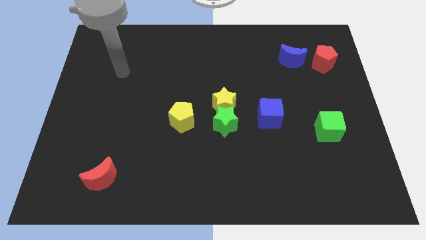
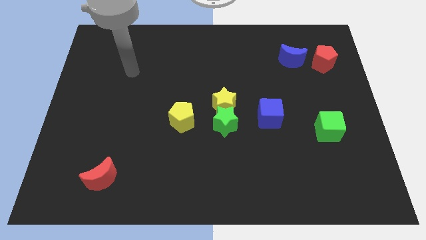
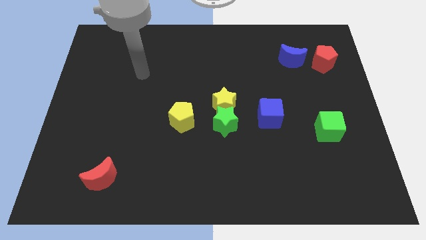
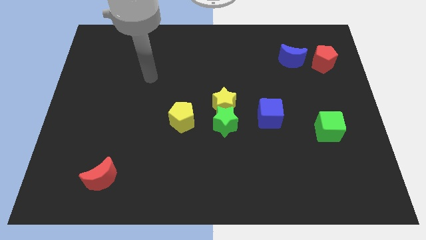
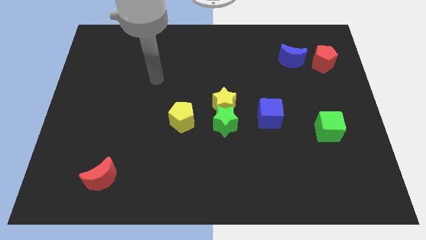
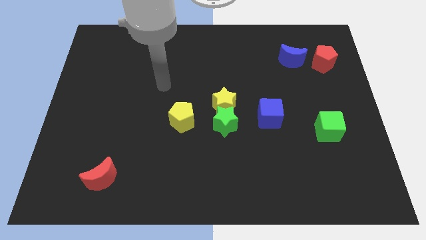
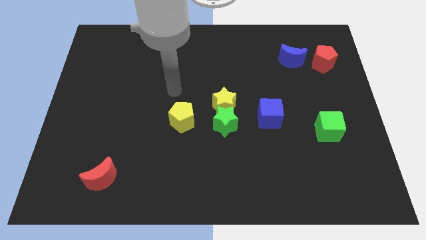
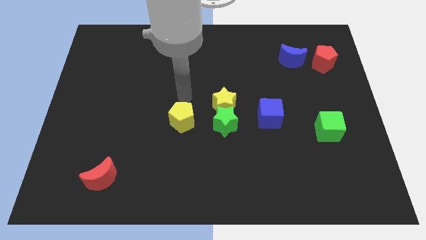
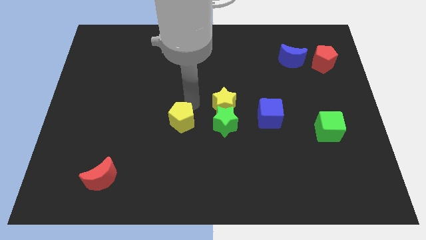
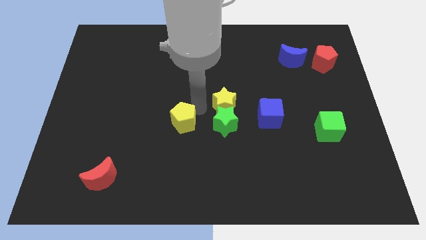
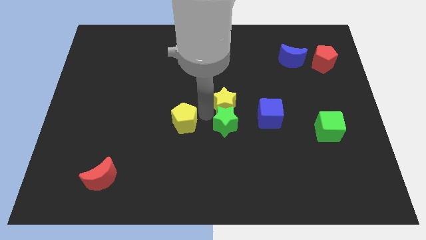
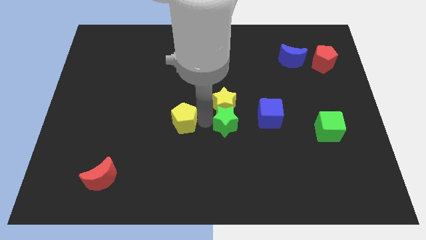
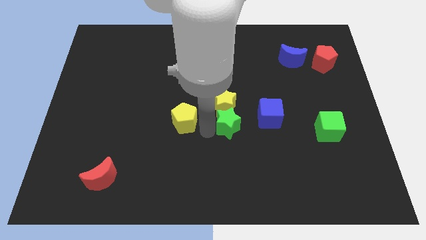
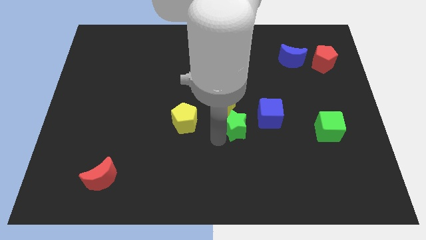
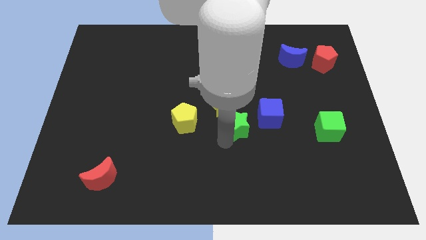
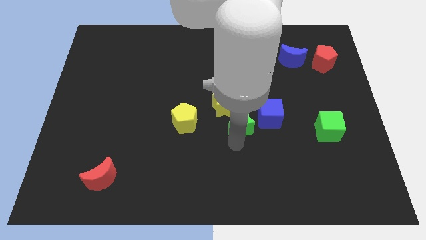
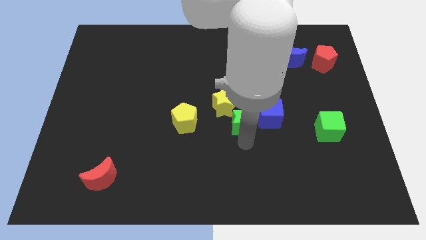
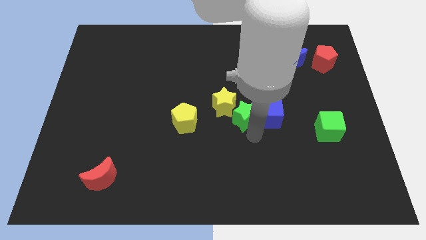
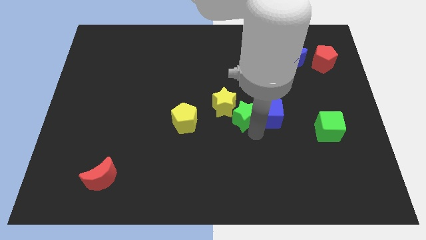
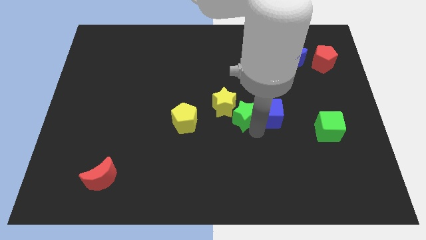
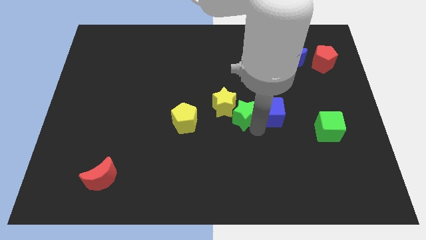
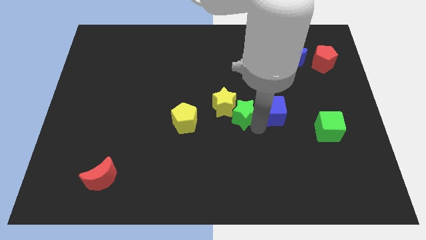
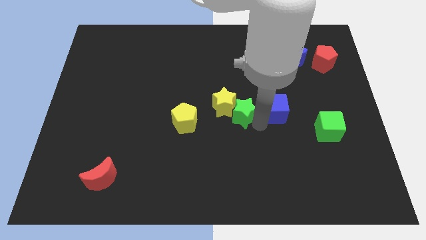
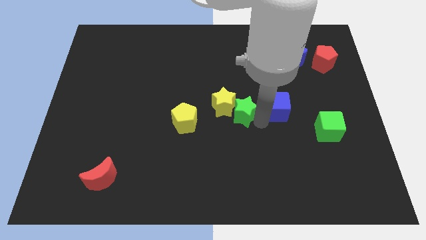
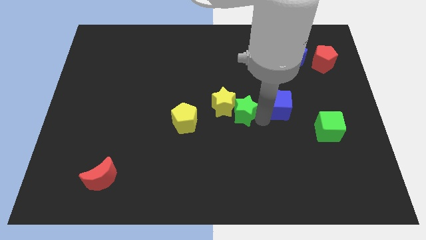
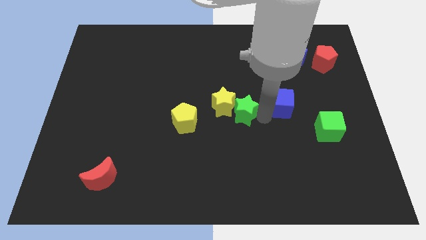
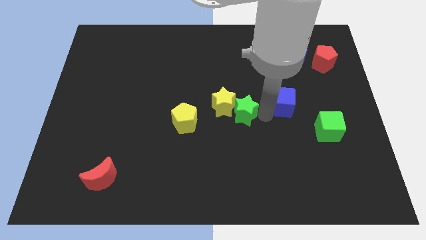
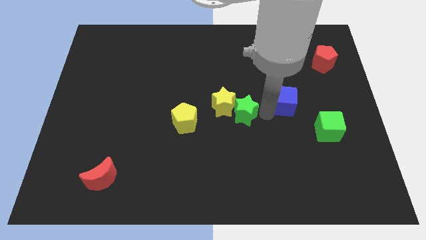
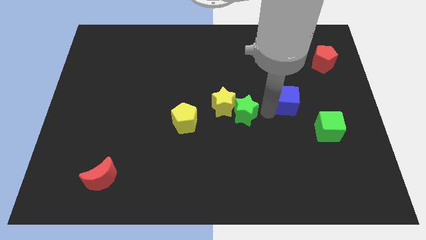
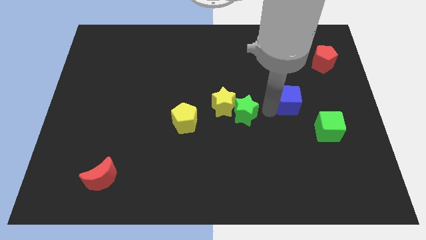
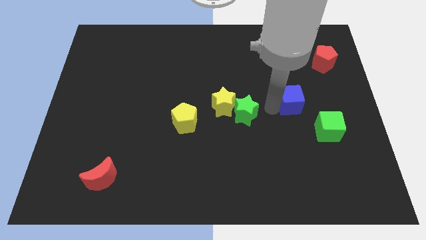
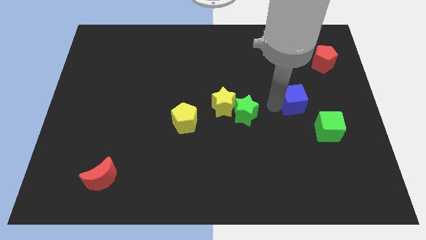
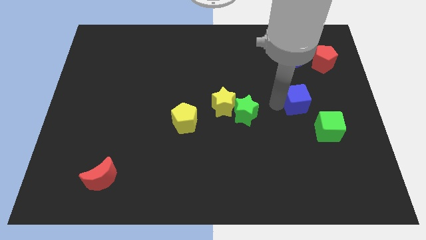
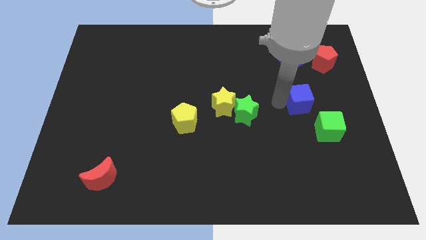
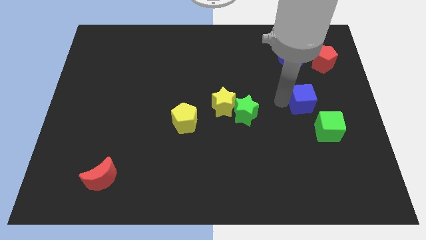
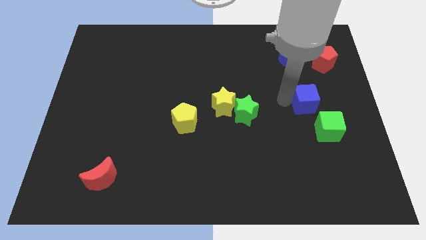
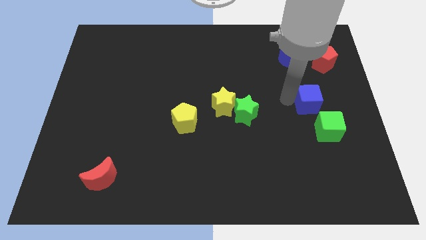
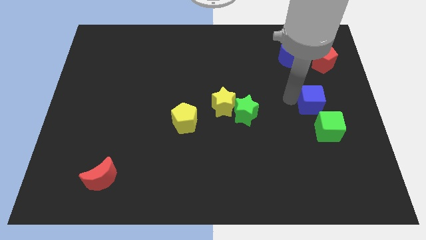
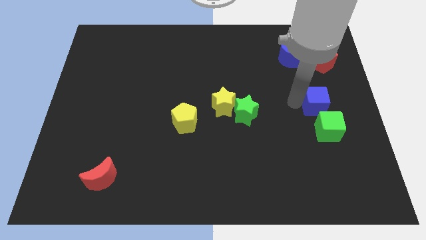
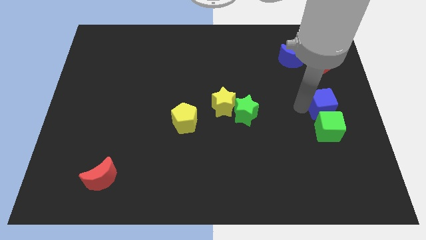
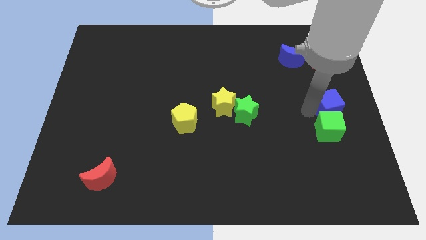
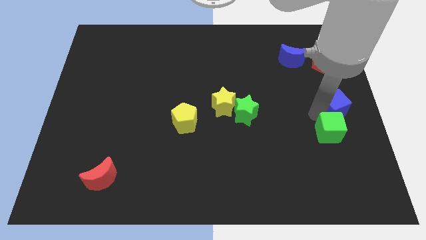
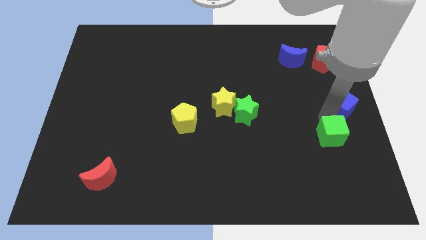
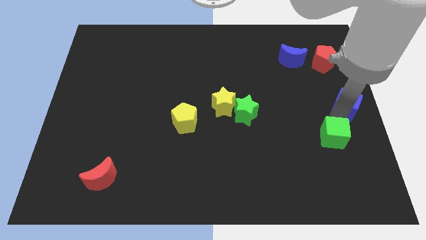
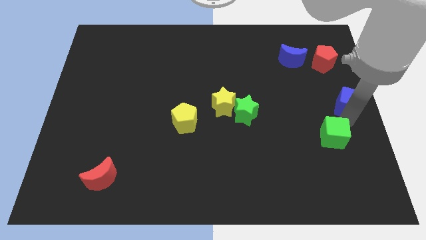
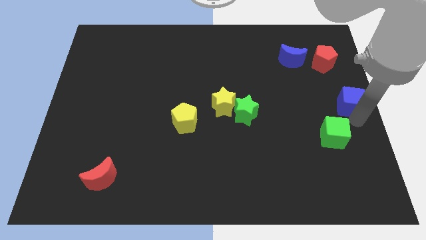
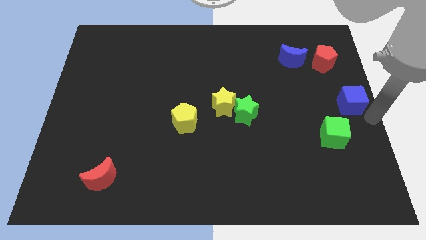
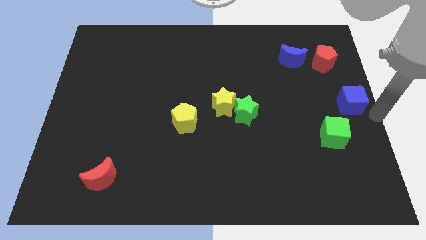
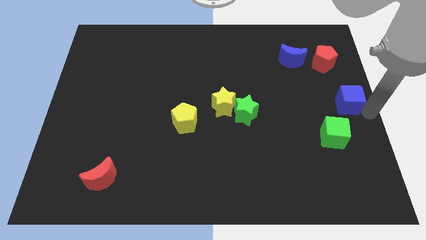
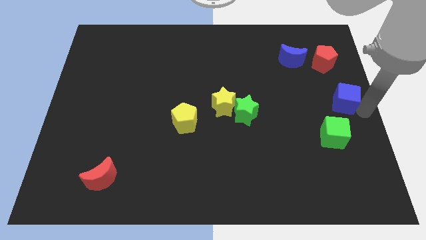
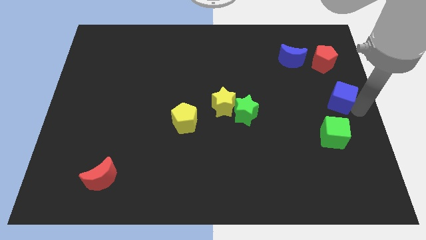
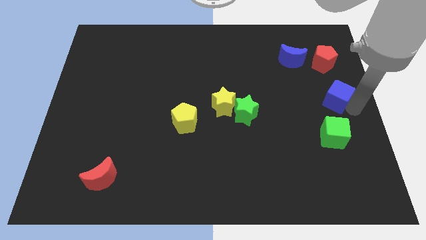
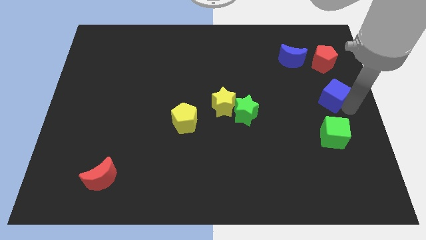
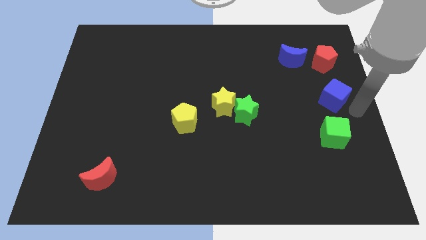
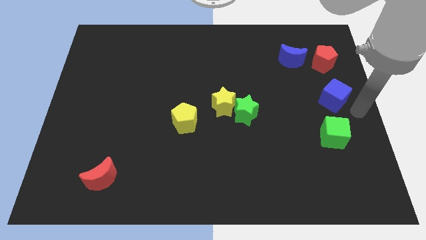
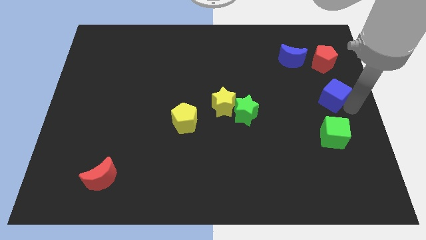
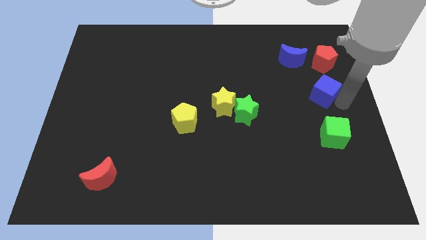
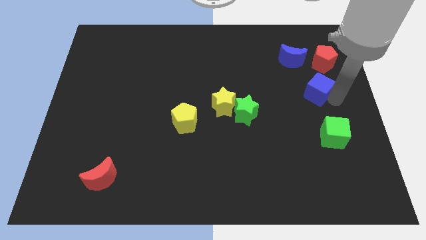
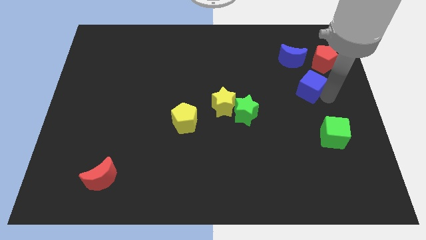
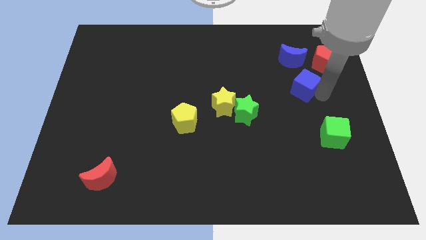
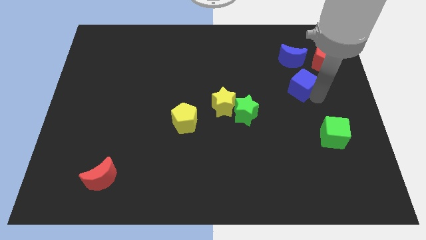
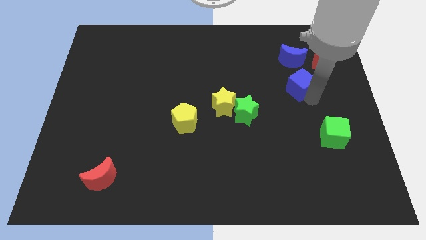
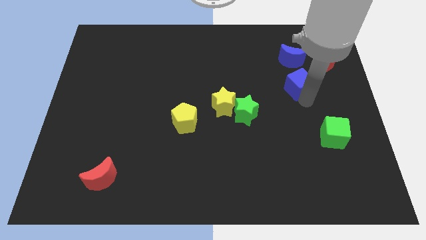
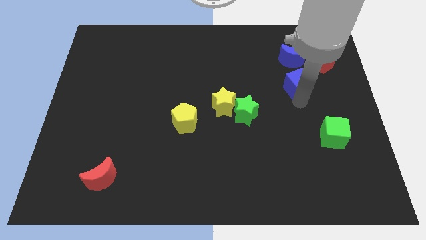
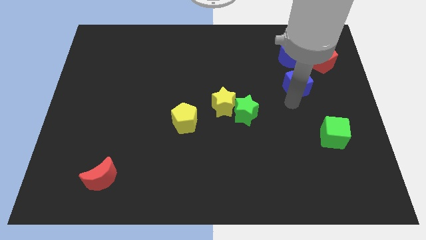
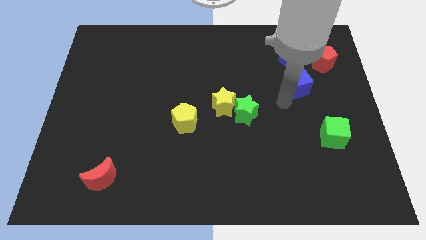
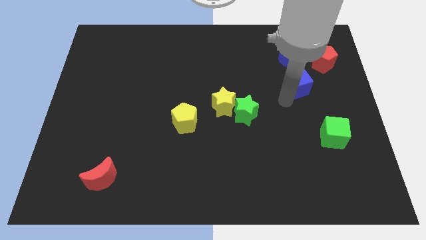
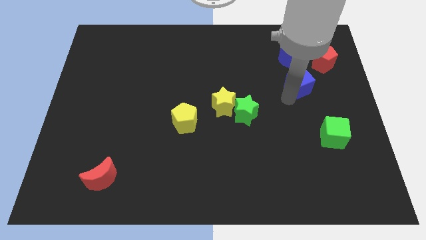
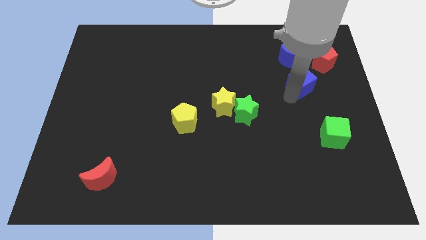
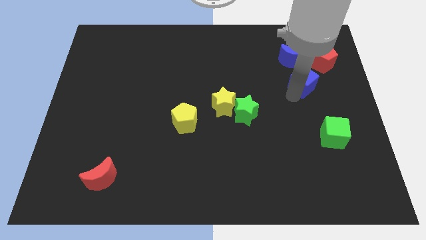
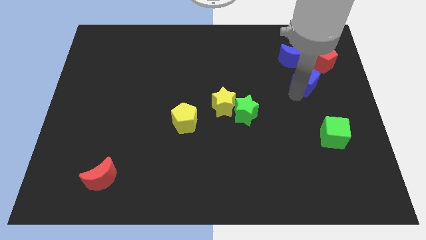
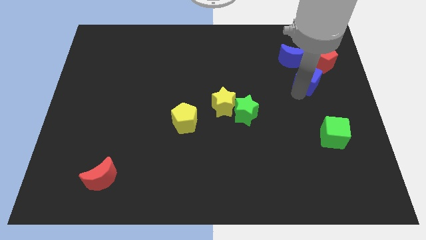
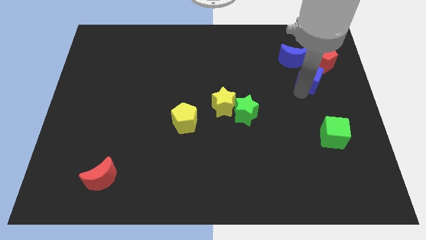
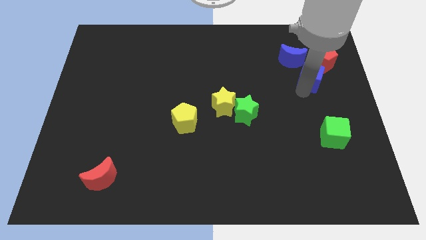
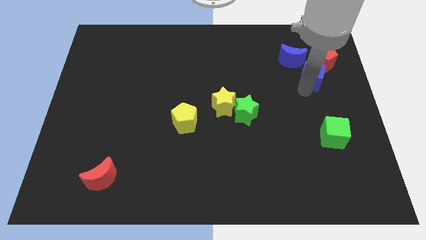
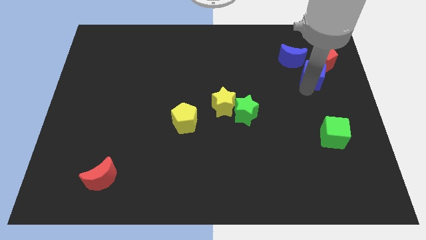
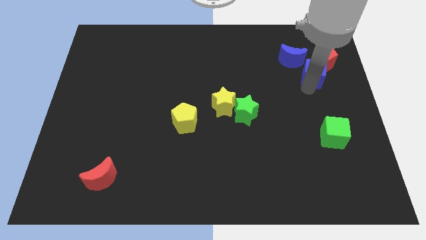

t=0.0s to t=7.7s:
move the blue cube to the red pentagon

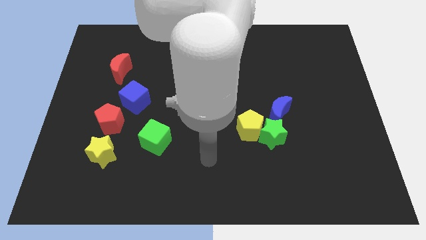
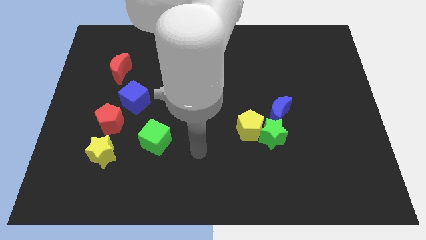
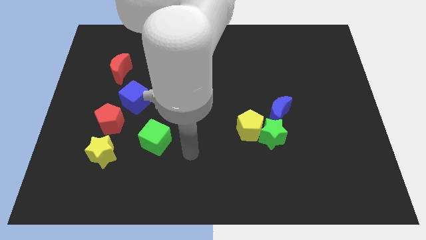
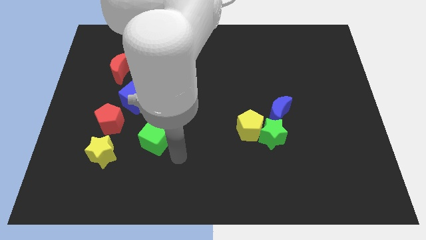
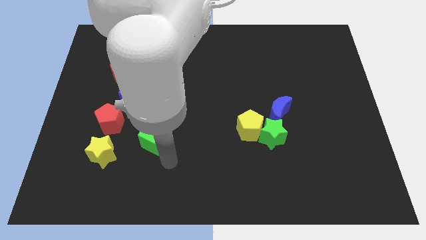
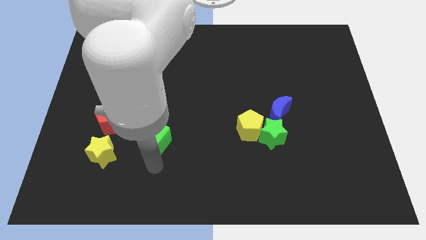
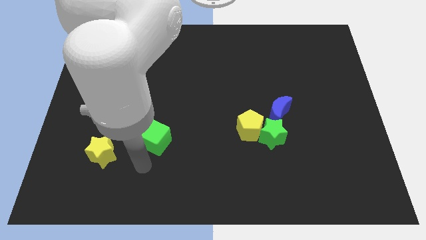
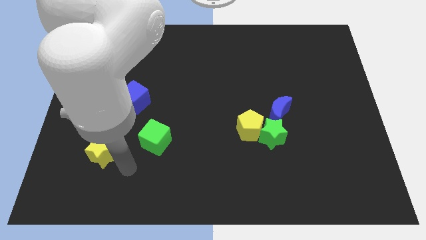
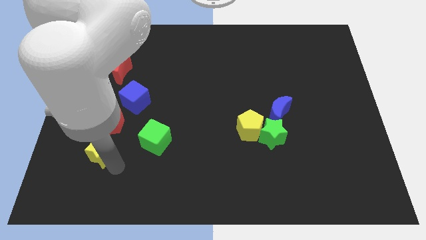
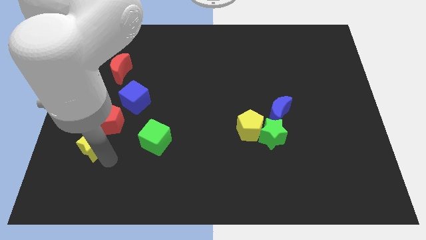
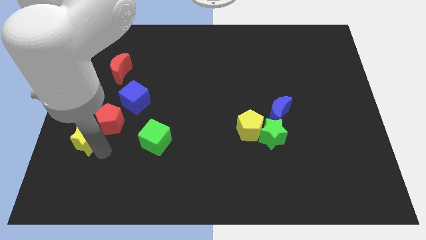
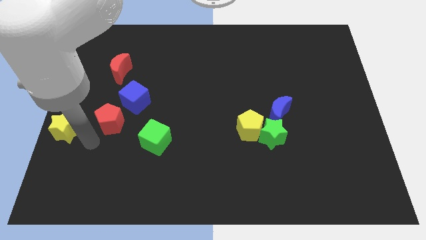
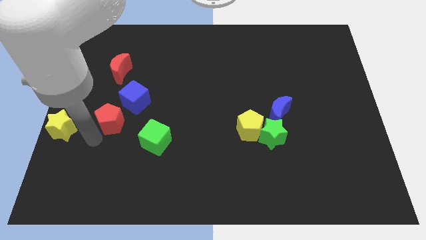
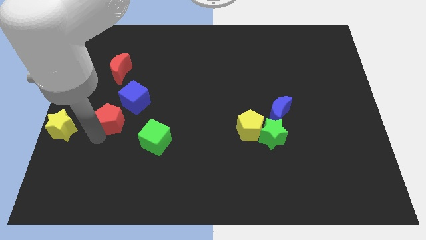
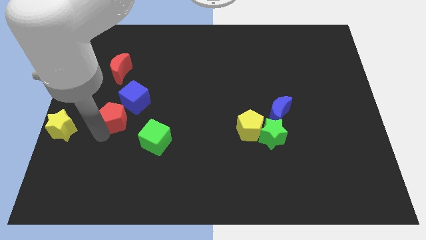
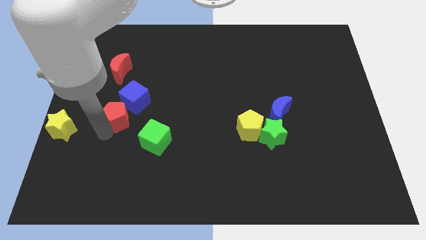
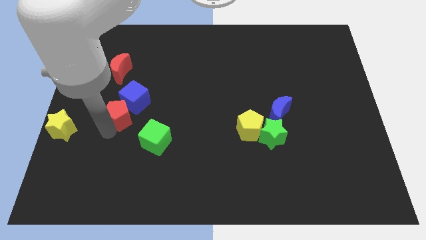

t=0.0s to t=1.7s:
move the red pentagon to the blue cube
